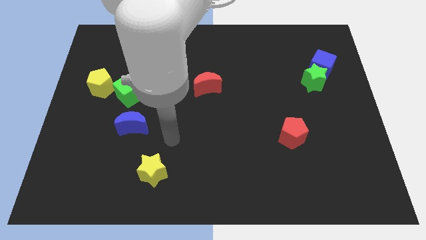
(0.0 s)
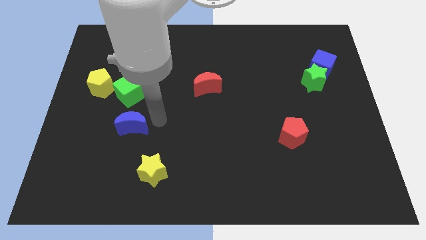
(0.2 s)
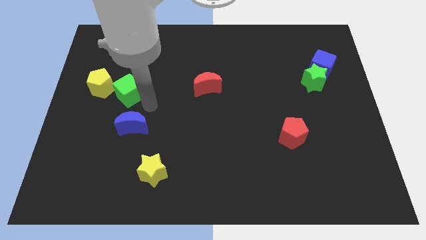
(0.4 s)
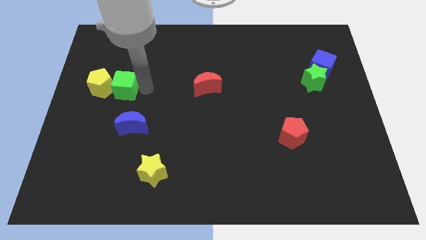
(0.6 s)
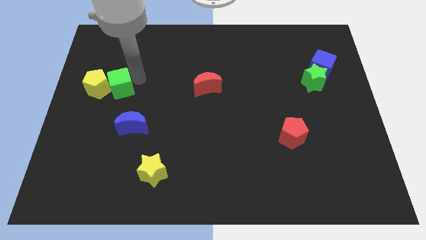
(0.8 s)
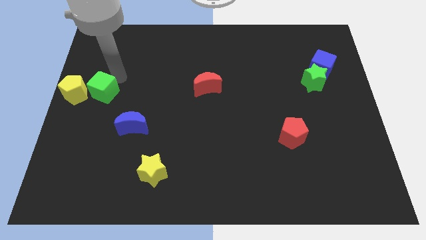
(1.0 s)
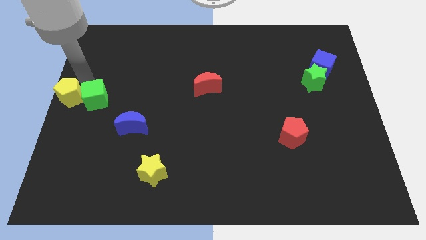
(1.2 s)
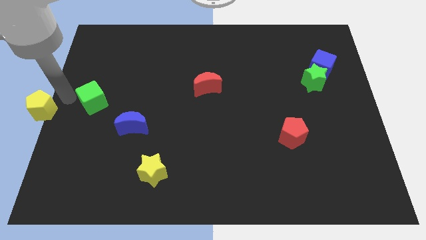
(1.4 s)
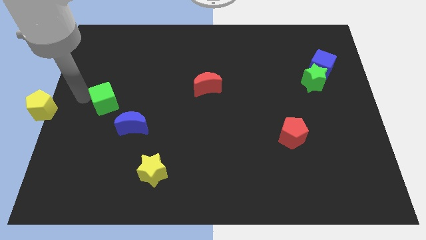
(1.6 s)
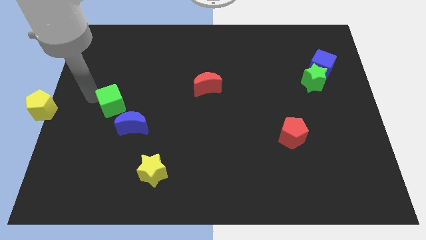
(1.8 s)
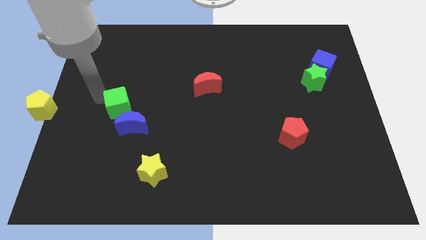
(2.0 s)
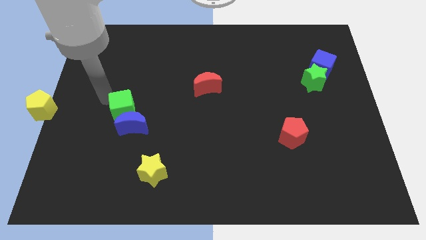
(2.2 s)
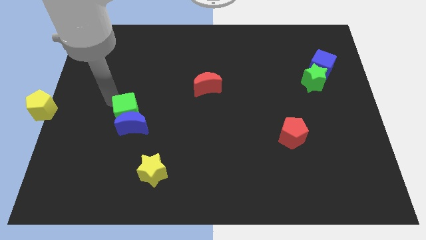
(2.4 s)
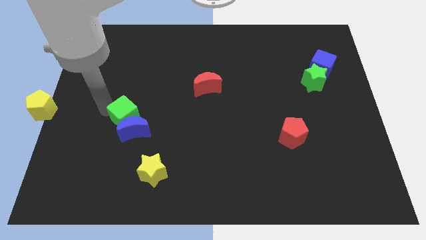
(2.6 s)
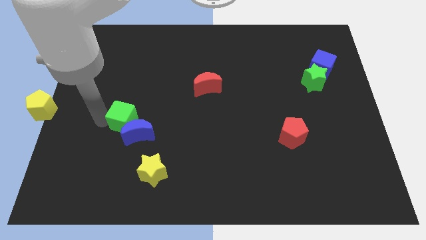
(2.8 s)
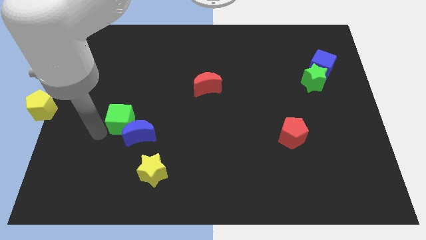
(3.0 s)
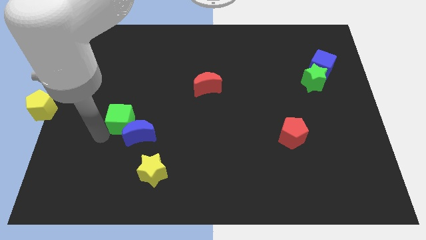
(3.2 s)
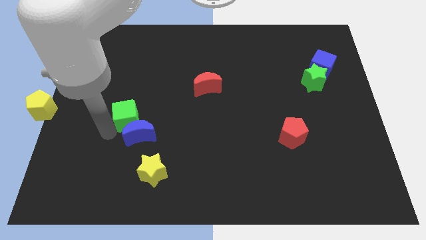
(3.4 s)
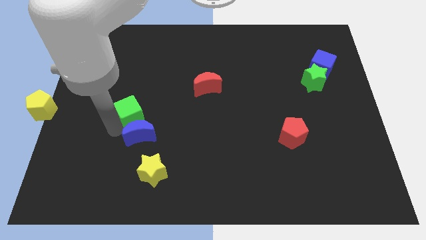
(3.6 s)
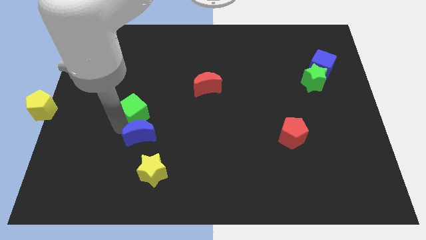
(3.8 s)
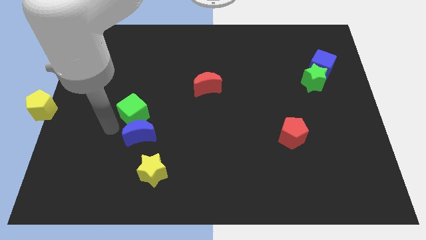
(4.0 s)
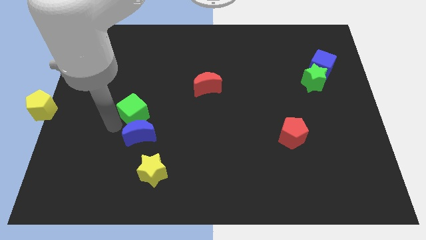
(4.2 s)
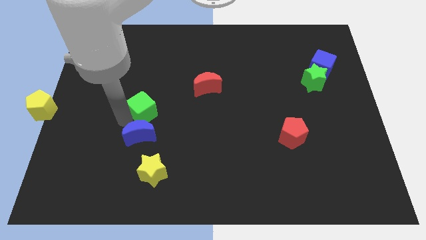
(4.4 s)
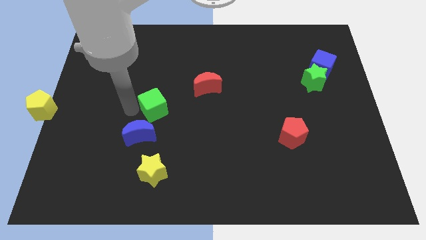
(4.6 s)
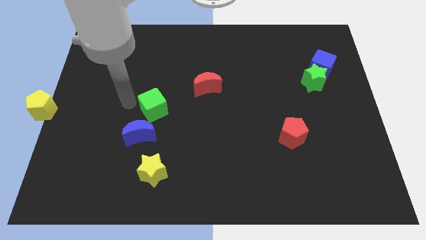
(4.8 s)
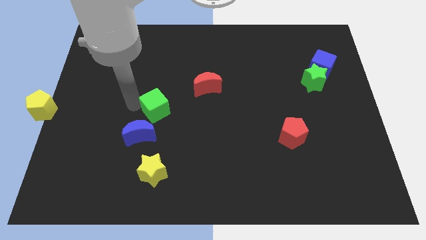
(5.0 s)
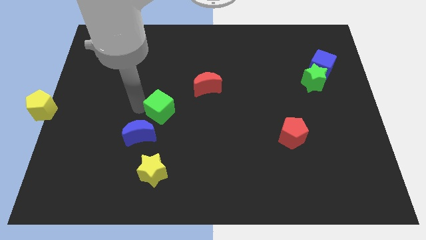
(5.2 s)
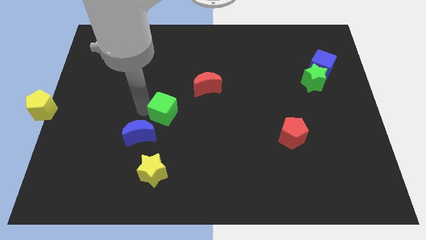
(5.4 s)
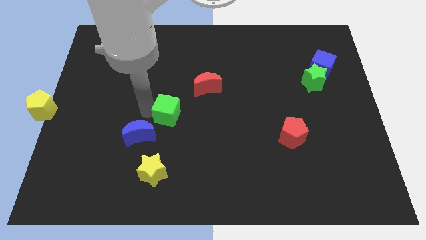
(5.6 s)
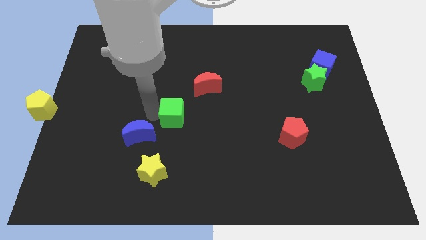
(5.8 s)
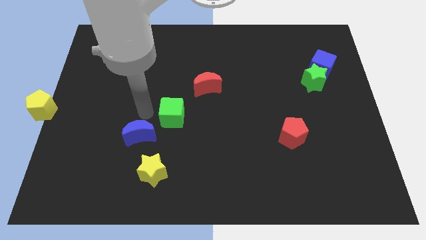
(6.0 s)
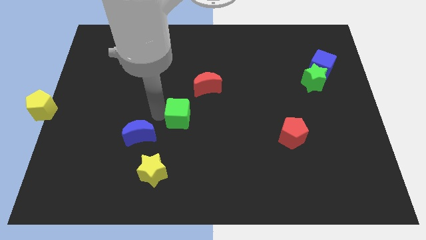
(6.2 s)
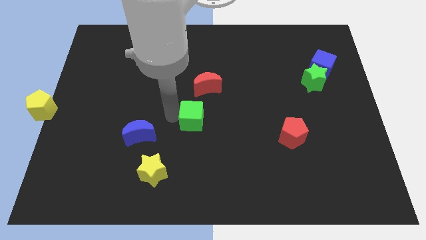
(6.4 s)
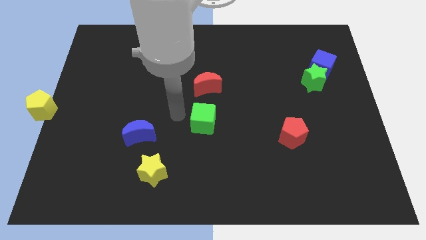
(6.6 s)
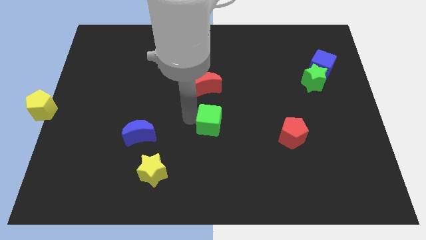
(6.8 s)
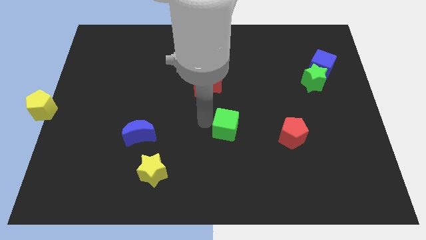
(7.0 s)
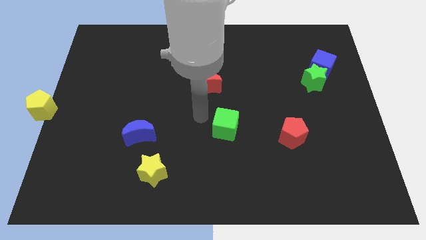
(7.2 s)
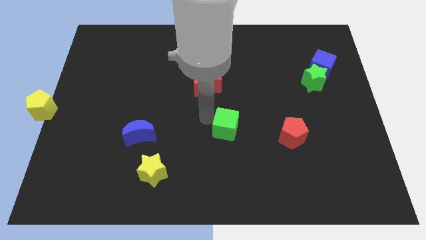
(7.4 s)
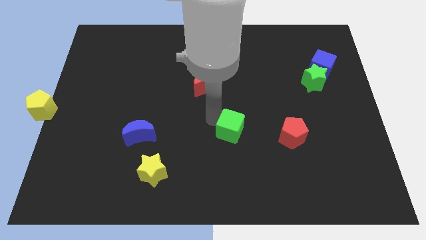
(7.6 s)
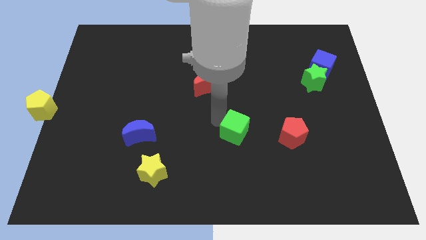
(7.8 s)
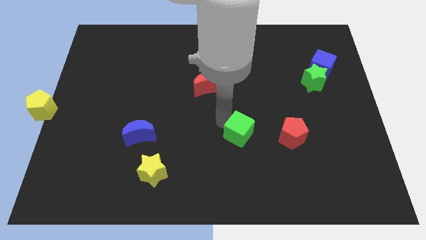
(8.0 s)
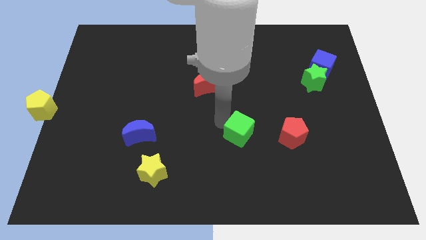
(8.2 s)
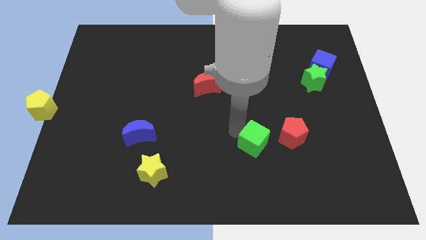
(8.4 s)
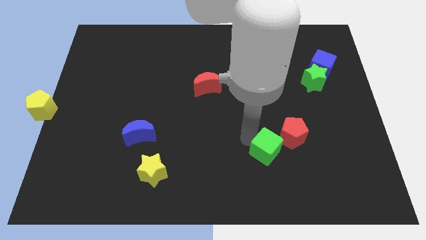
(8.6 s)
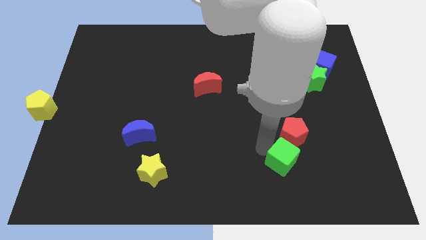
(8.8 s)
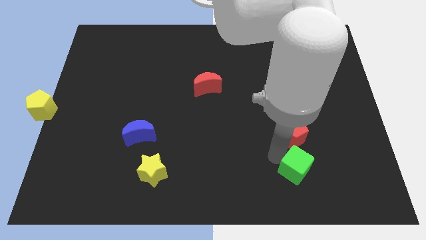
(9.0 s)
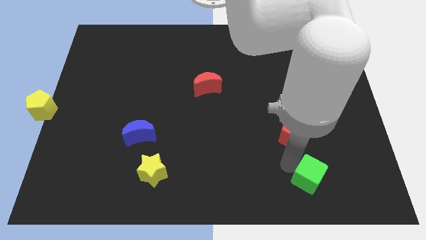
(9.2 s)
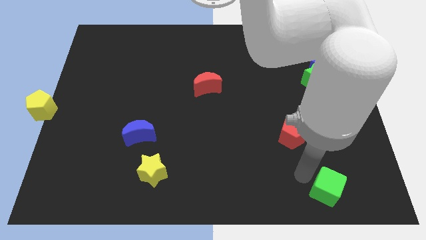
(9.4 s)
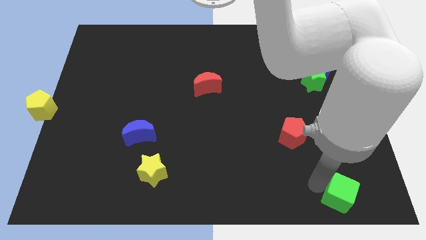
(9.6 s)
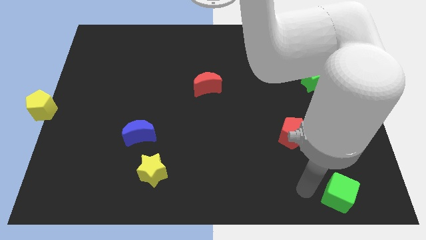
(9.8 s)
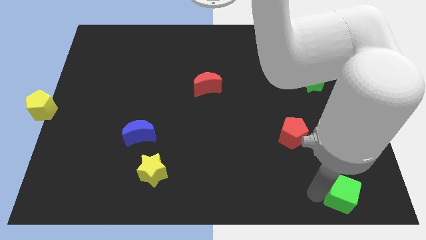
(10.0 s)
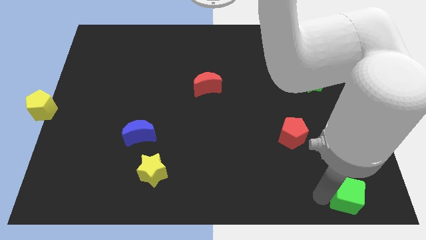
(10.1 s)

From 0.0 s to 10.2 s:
slide the green cube to the bottom right

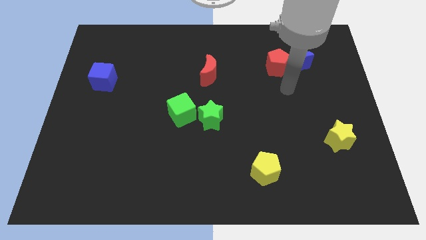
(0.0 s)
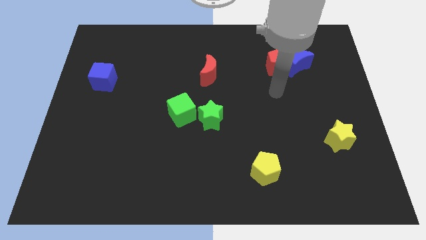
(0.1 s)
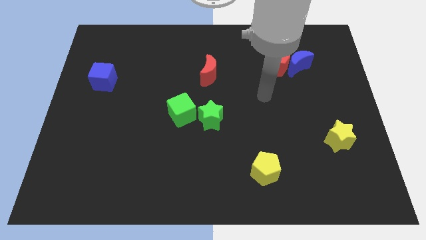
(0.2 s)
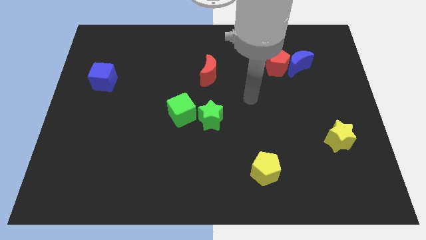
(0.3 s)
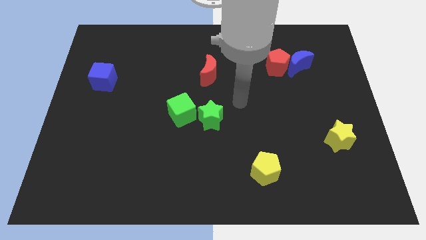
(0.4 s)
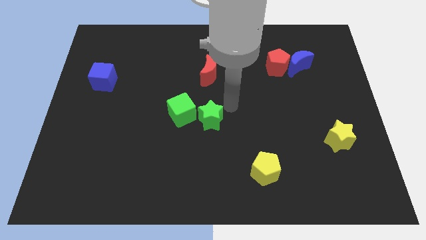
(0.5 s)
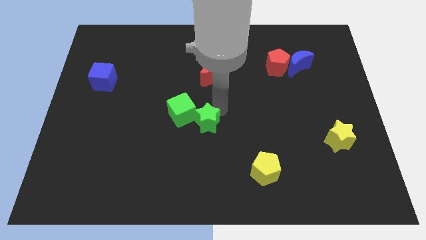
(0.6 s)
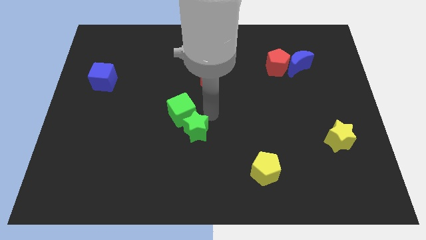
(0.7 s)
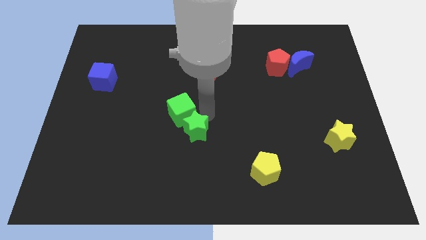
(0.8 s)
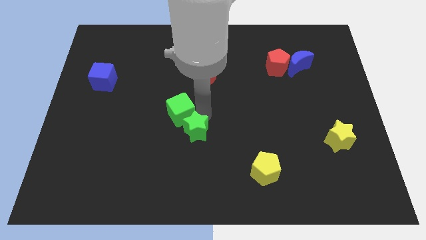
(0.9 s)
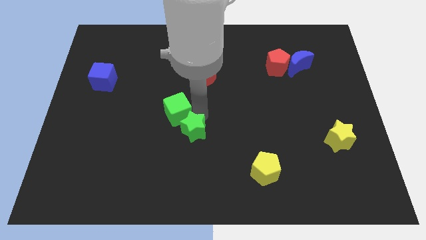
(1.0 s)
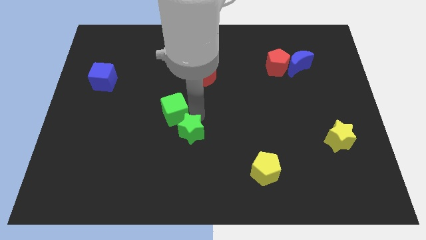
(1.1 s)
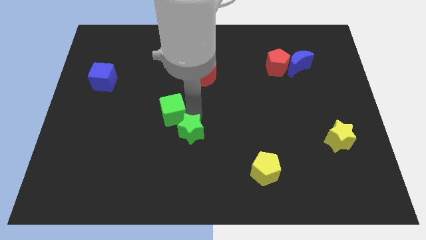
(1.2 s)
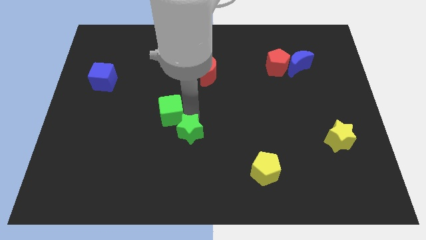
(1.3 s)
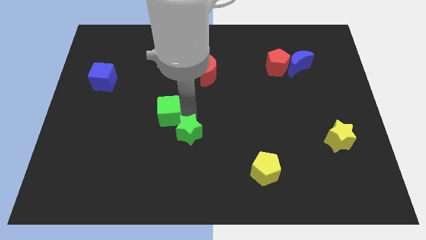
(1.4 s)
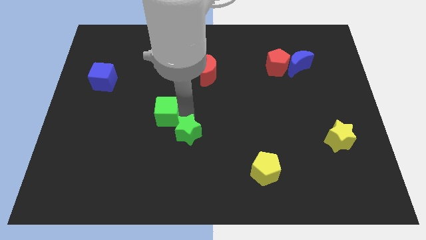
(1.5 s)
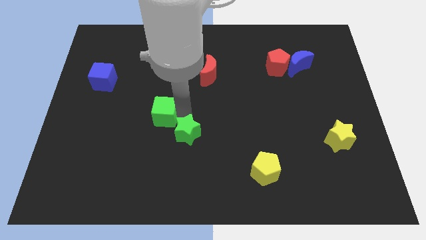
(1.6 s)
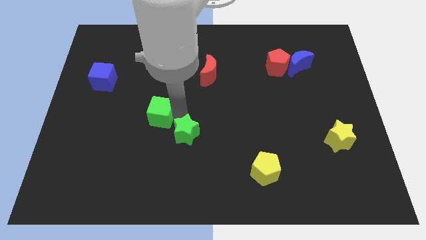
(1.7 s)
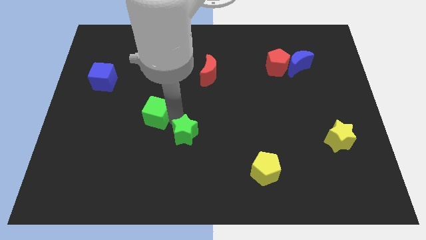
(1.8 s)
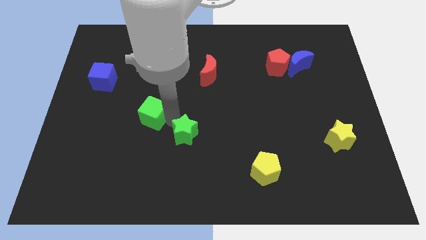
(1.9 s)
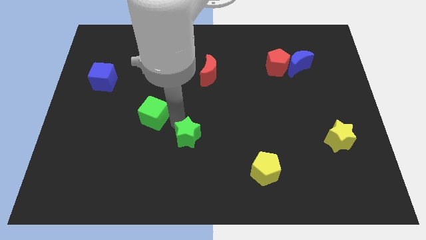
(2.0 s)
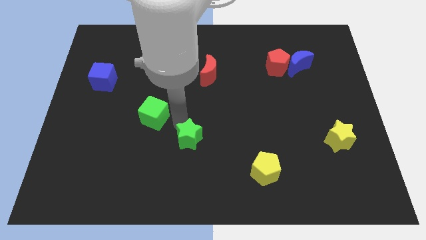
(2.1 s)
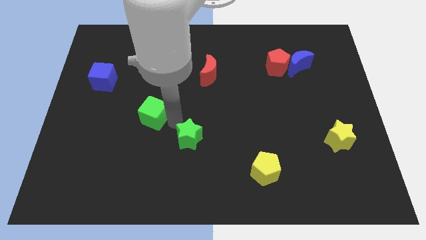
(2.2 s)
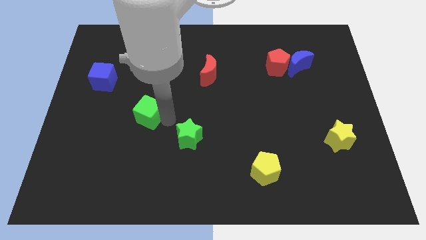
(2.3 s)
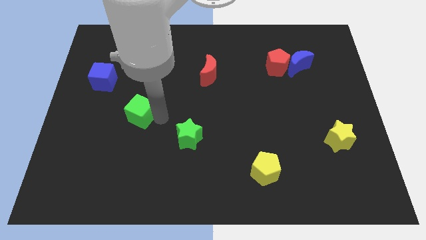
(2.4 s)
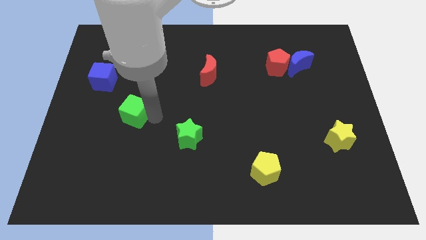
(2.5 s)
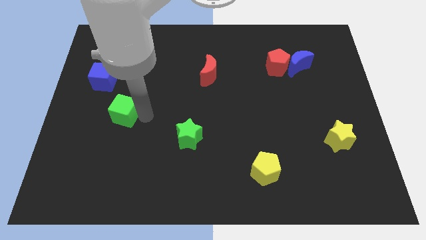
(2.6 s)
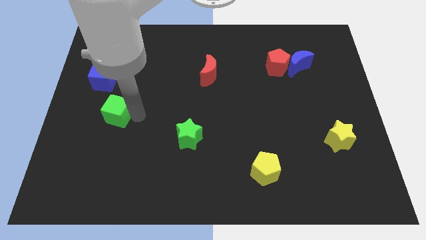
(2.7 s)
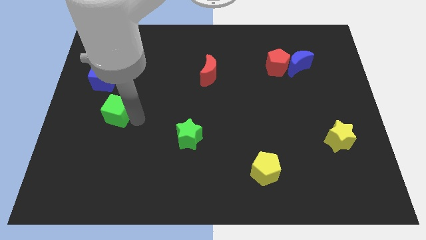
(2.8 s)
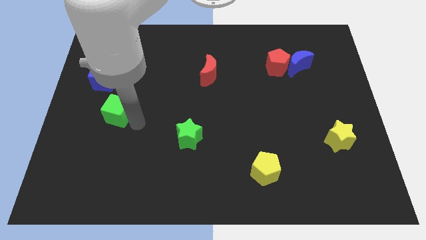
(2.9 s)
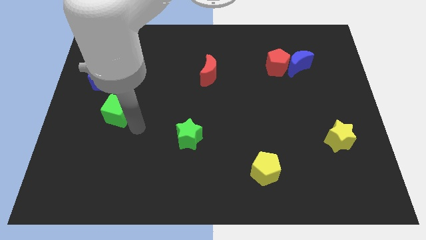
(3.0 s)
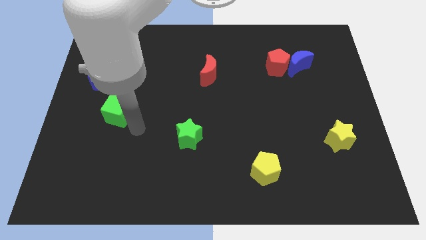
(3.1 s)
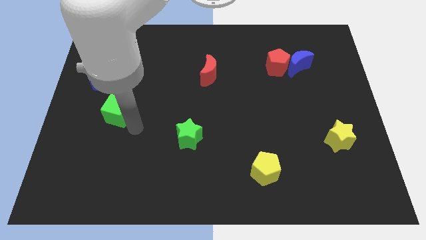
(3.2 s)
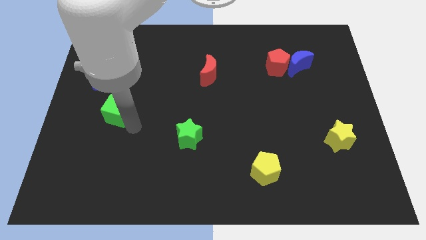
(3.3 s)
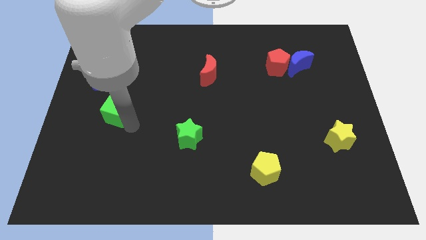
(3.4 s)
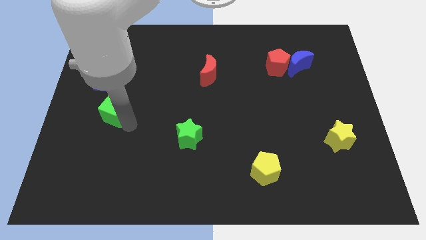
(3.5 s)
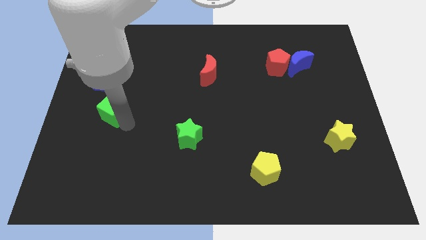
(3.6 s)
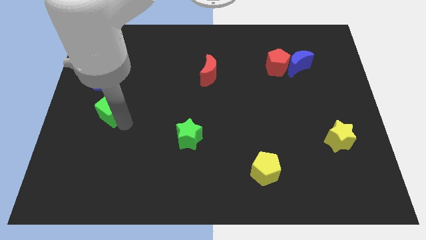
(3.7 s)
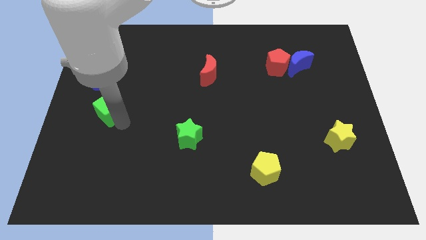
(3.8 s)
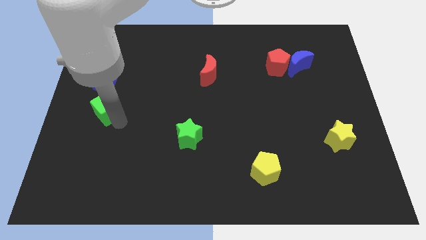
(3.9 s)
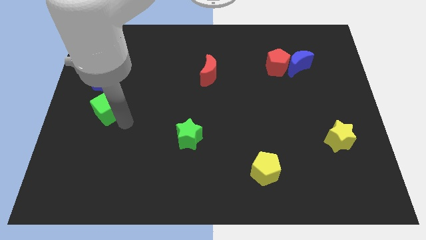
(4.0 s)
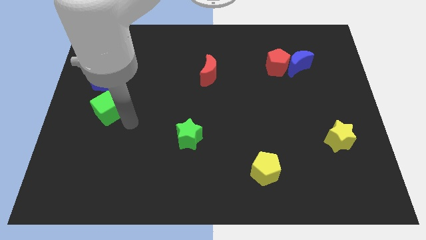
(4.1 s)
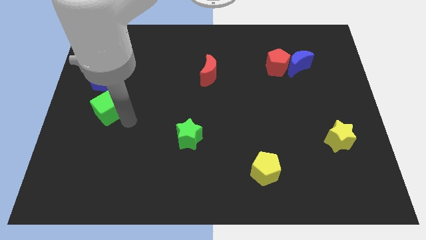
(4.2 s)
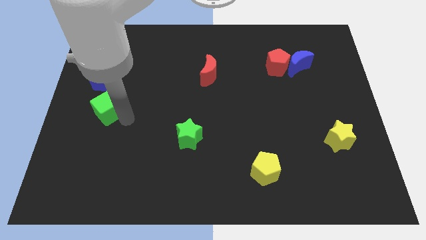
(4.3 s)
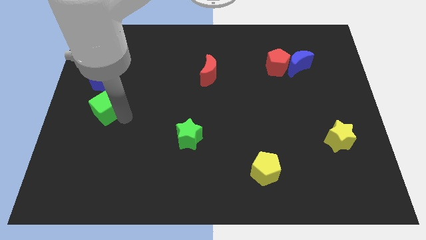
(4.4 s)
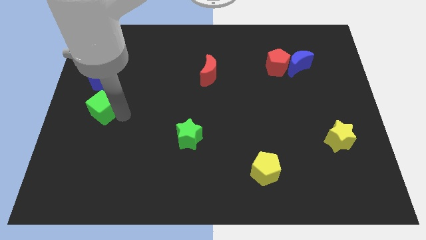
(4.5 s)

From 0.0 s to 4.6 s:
push the green cube to the left side of the board
